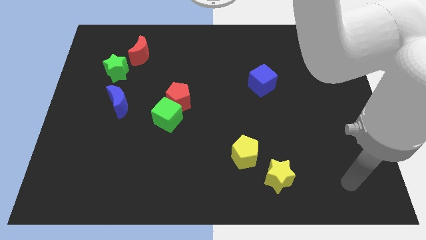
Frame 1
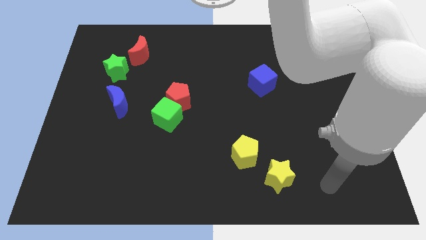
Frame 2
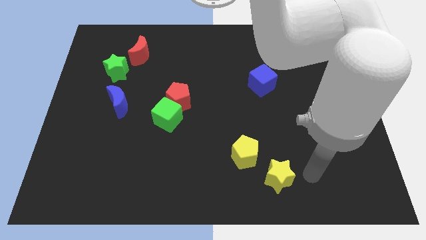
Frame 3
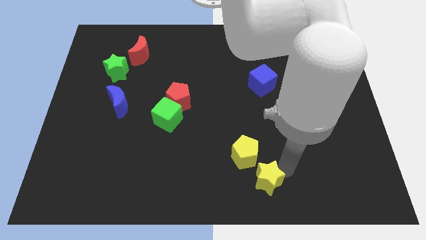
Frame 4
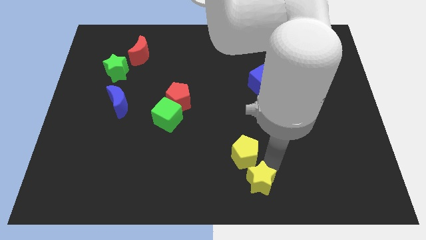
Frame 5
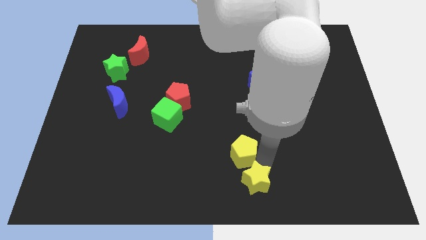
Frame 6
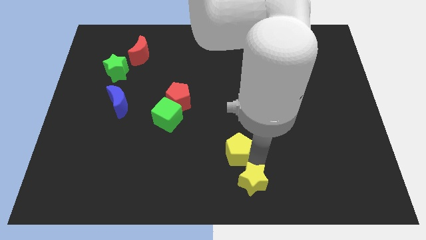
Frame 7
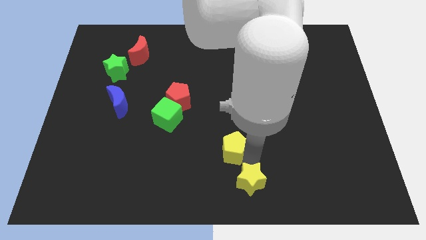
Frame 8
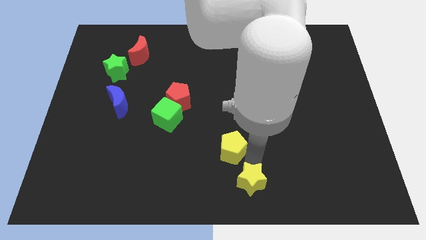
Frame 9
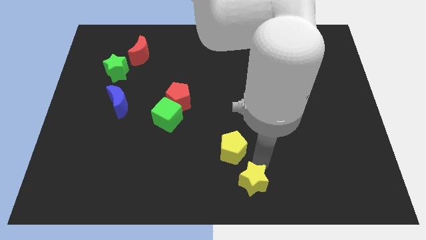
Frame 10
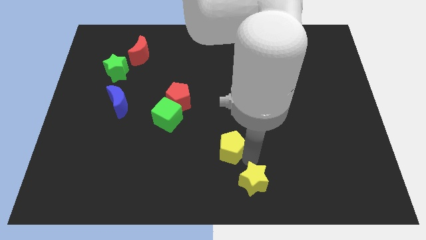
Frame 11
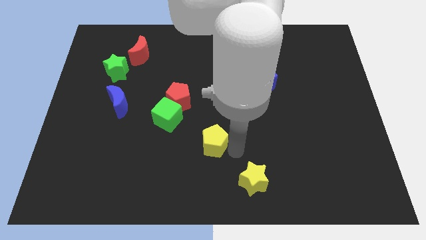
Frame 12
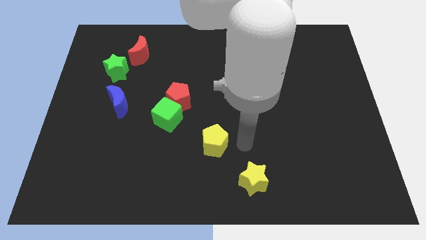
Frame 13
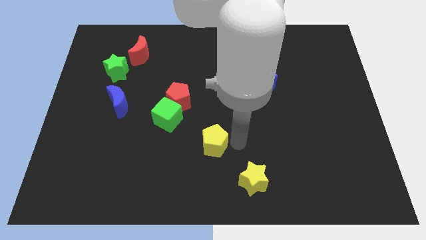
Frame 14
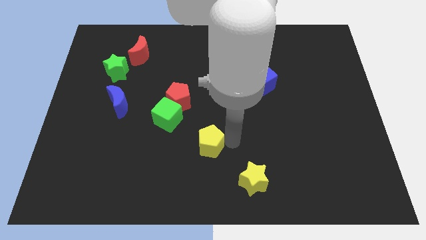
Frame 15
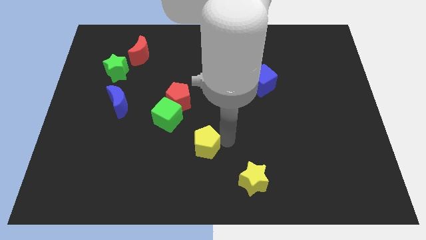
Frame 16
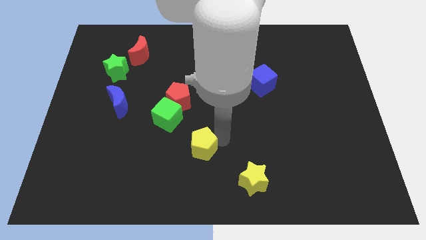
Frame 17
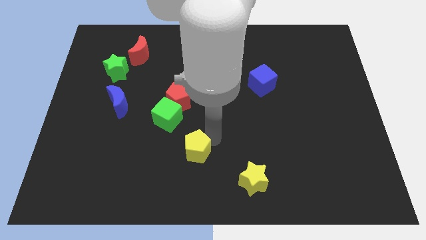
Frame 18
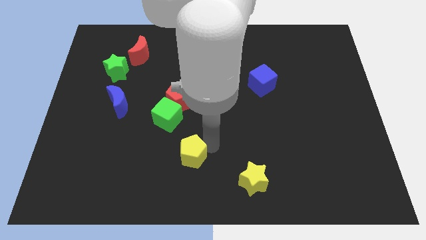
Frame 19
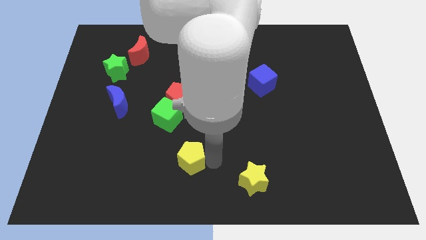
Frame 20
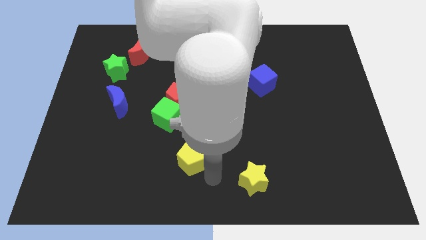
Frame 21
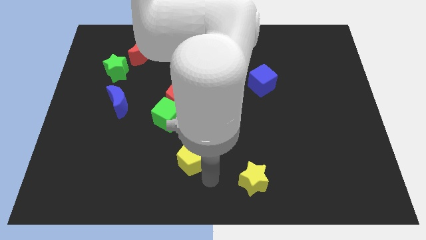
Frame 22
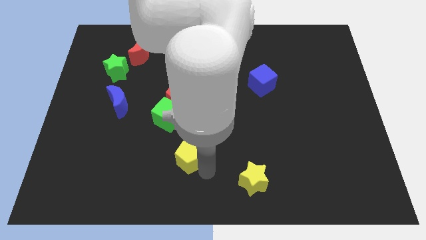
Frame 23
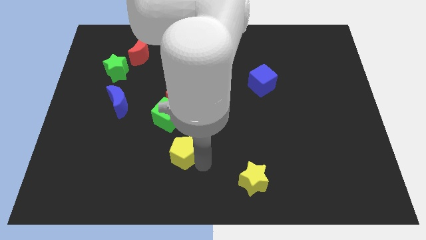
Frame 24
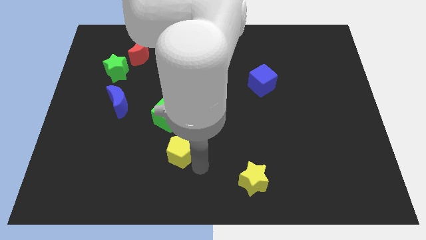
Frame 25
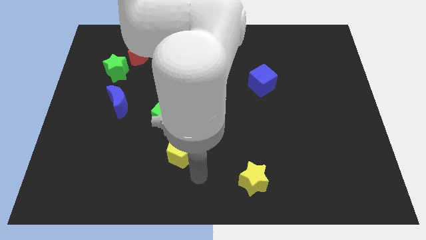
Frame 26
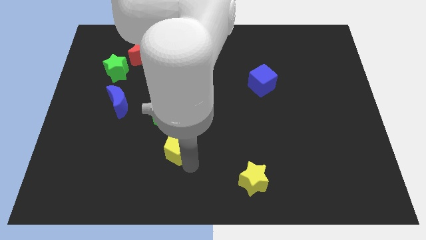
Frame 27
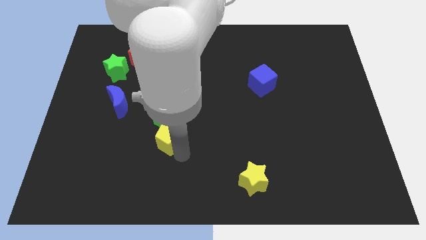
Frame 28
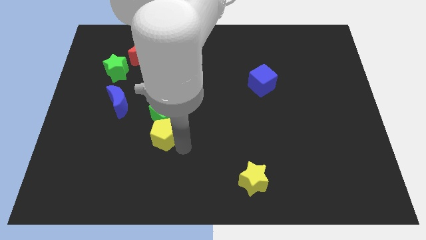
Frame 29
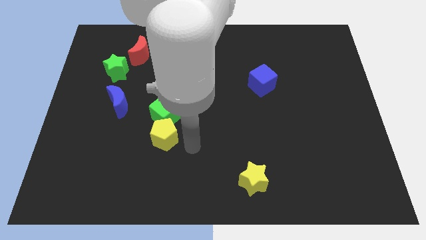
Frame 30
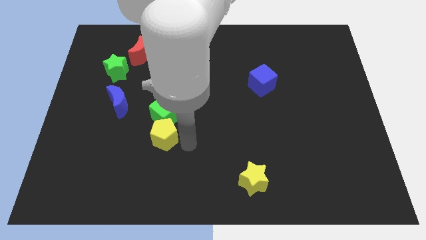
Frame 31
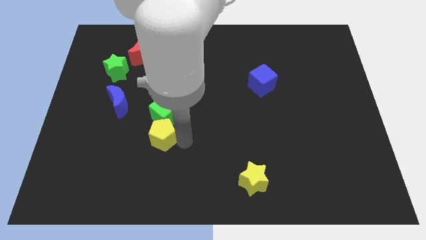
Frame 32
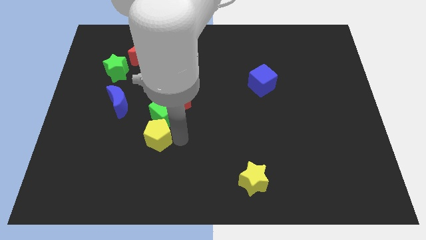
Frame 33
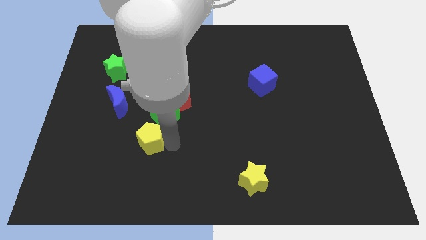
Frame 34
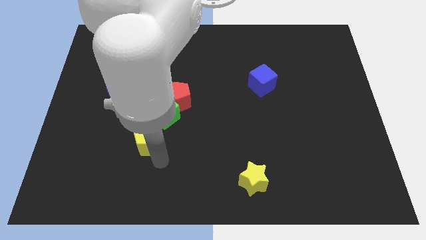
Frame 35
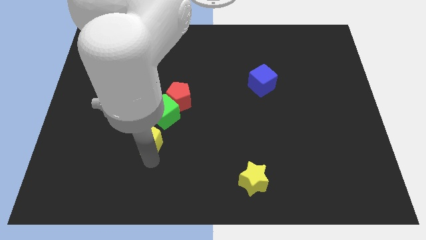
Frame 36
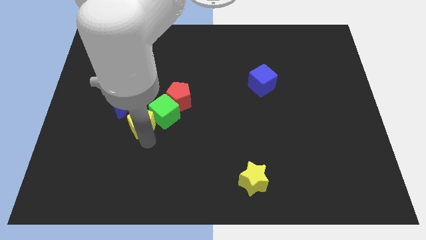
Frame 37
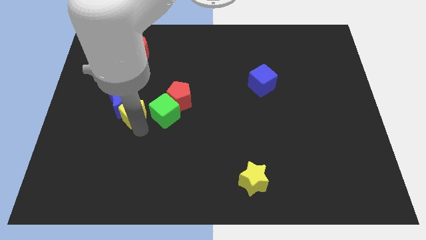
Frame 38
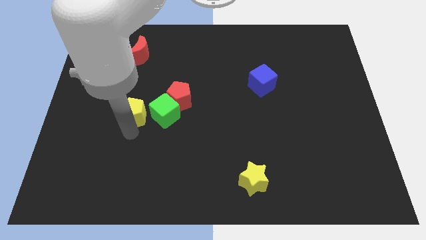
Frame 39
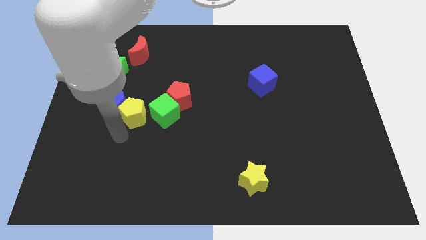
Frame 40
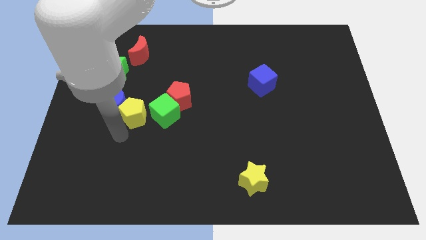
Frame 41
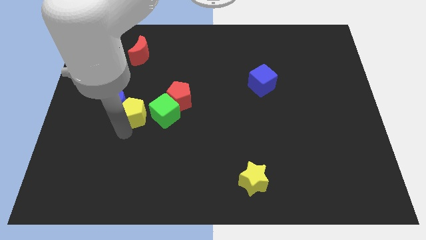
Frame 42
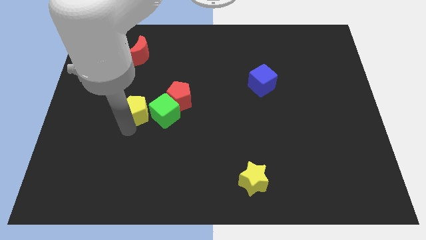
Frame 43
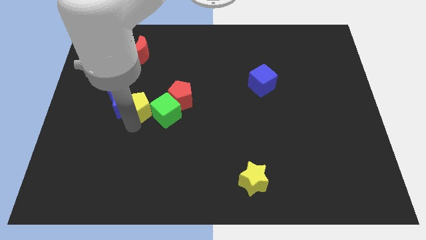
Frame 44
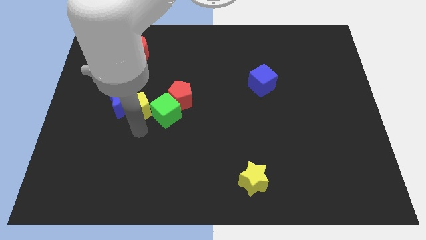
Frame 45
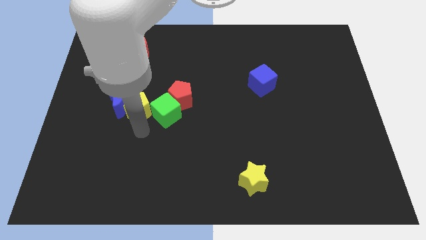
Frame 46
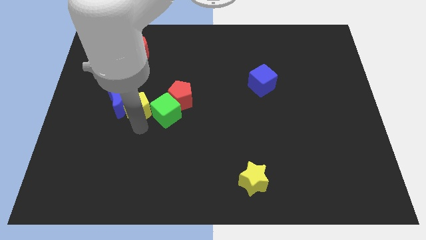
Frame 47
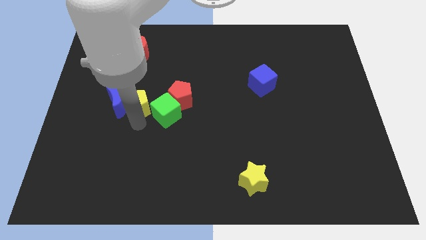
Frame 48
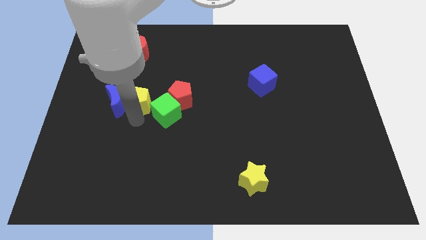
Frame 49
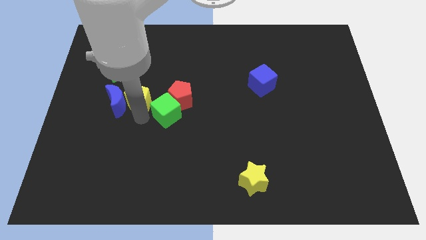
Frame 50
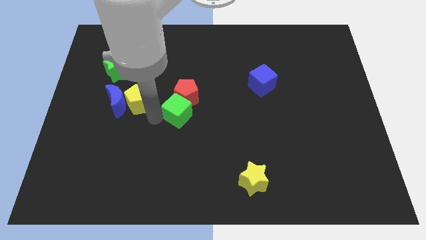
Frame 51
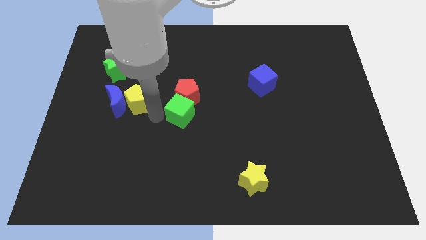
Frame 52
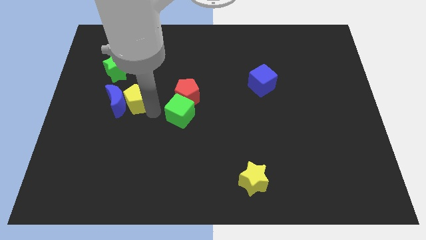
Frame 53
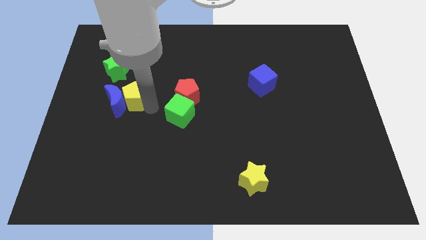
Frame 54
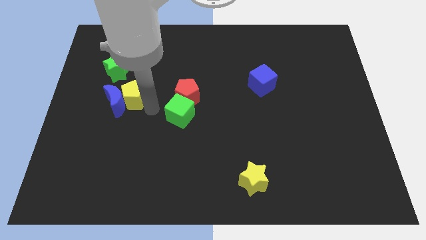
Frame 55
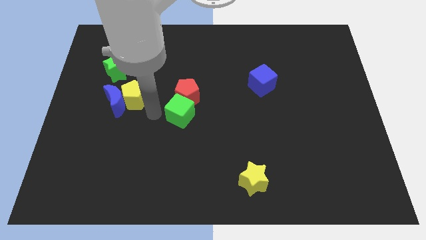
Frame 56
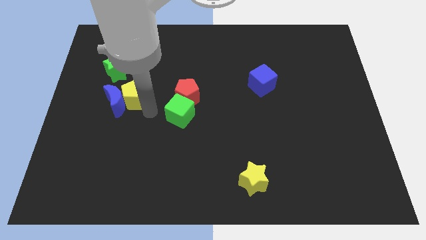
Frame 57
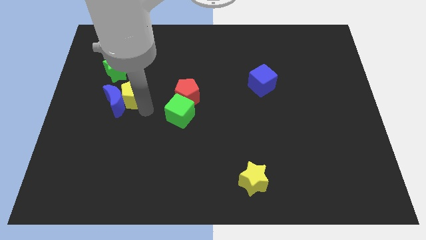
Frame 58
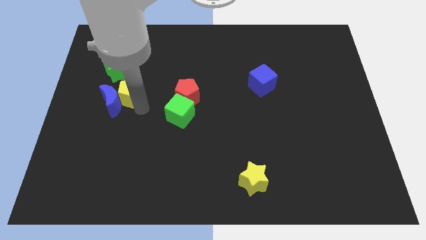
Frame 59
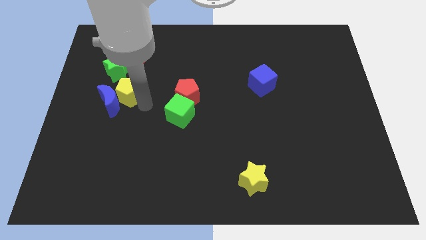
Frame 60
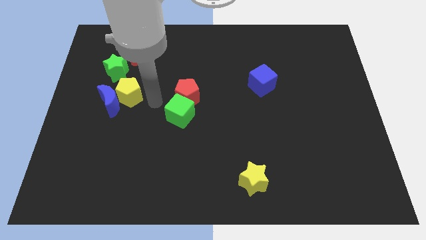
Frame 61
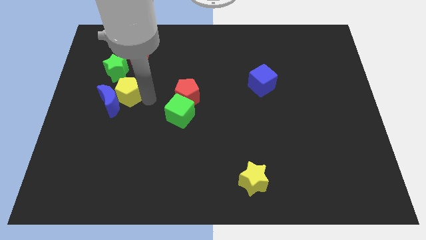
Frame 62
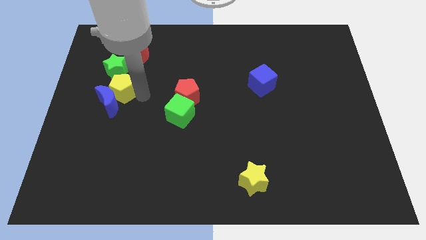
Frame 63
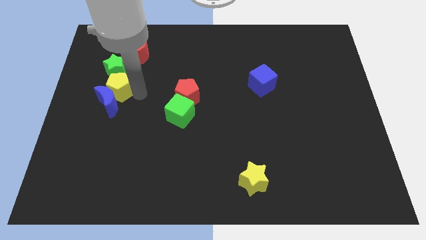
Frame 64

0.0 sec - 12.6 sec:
put the yellow pentagon to the top left side of the blue moon

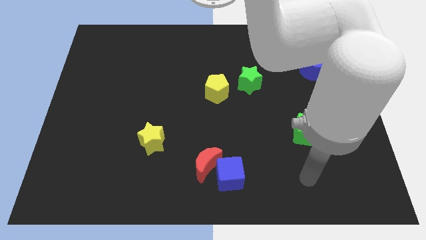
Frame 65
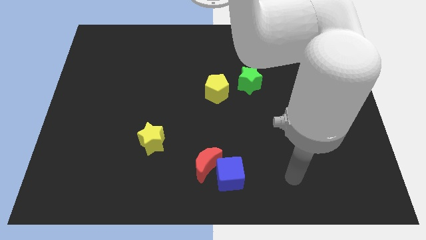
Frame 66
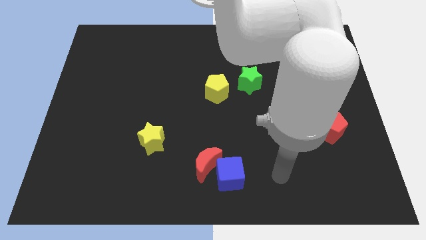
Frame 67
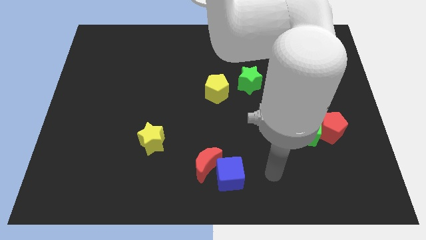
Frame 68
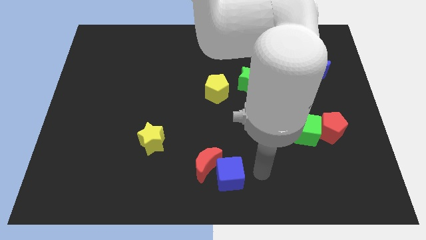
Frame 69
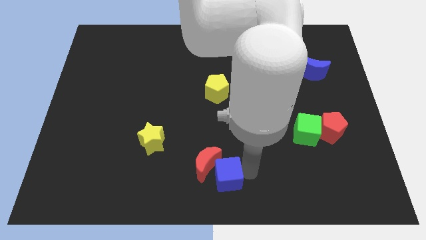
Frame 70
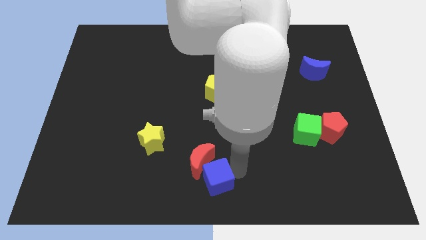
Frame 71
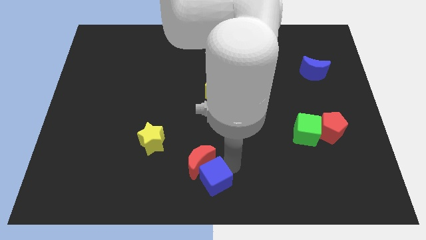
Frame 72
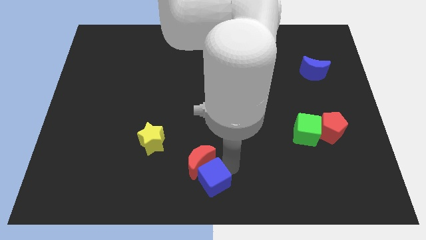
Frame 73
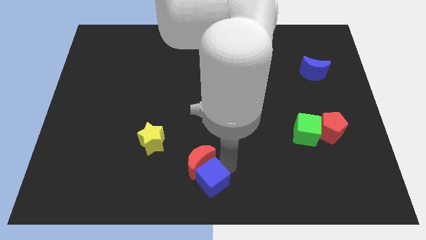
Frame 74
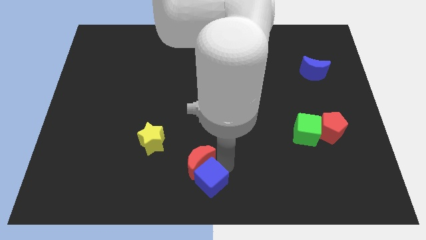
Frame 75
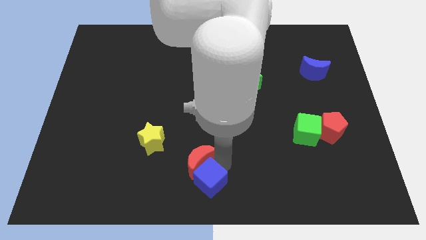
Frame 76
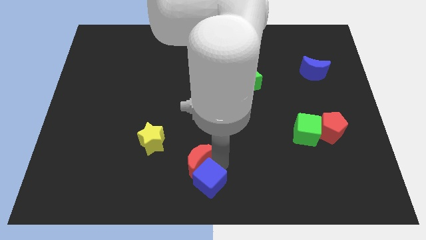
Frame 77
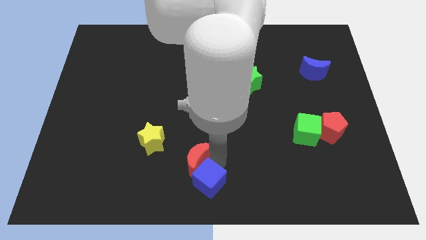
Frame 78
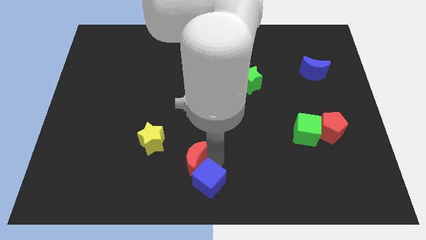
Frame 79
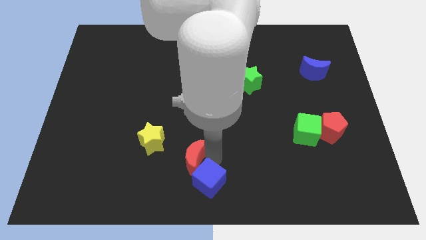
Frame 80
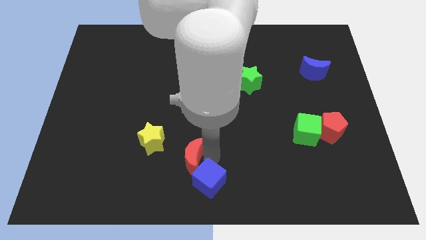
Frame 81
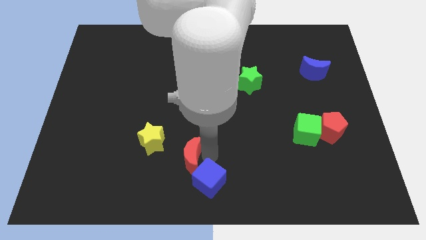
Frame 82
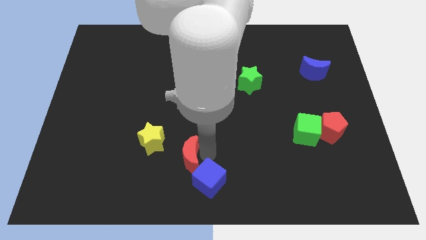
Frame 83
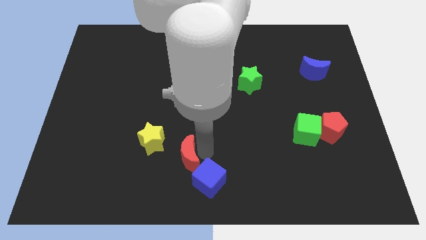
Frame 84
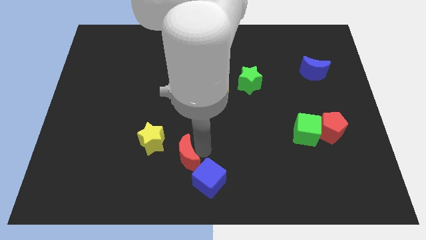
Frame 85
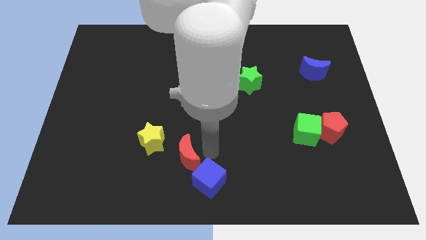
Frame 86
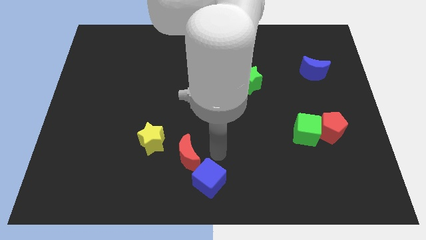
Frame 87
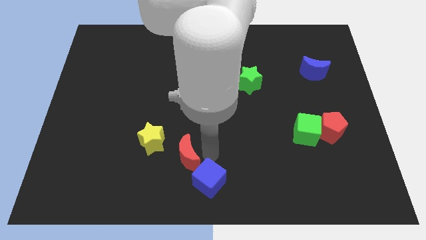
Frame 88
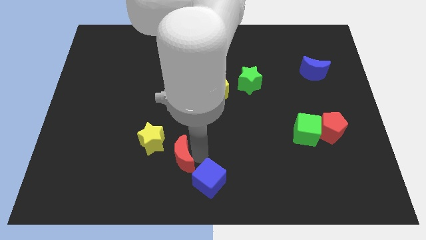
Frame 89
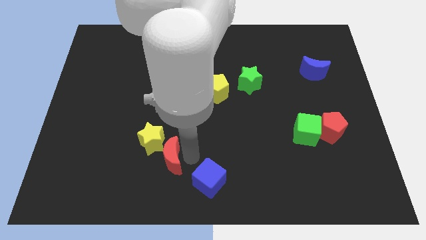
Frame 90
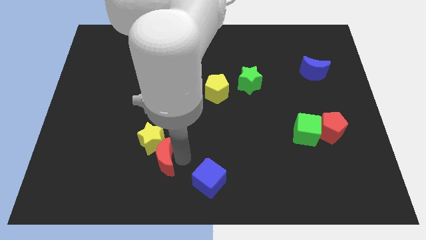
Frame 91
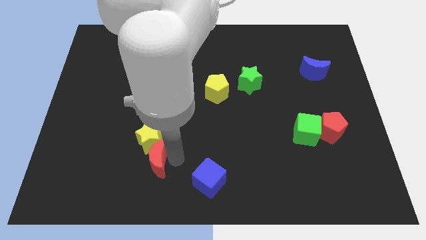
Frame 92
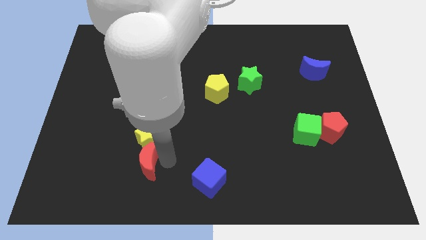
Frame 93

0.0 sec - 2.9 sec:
put the red moon to the bottom left side of the yellow star
